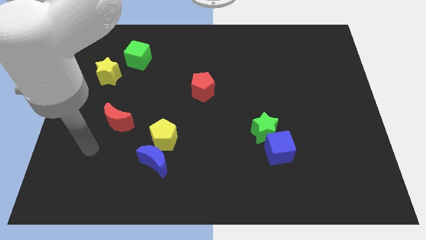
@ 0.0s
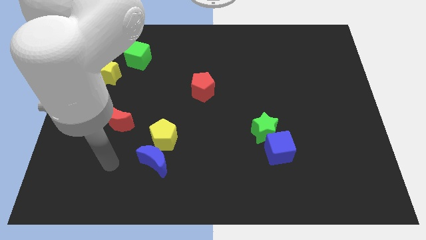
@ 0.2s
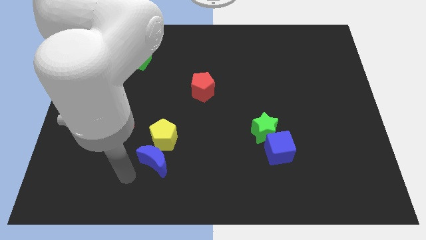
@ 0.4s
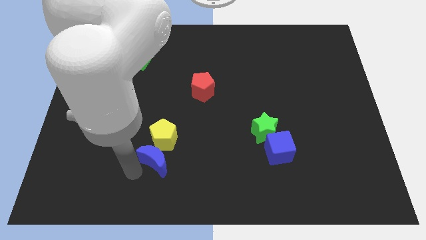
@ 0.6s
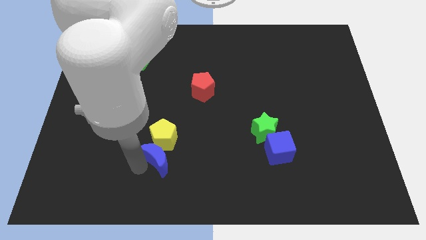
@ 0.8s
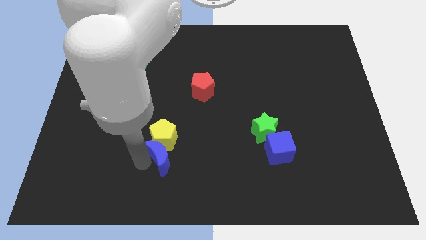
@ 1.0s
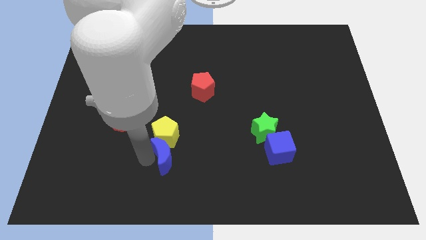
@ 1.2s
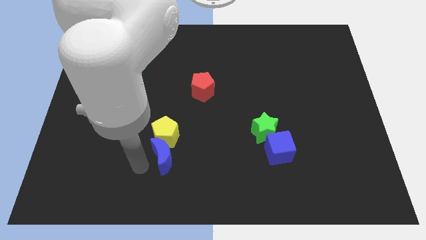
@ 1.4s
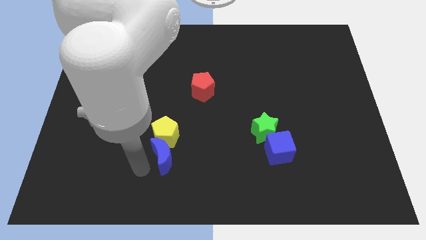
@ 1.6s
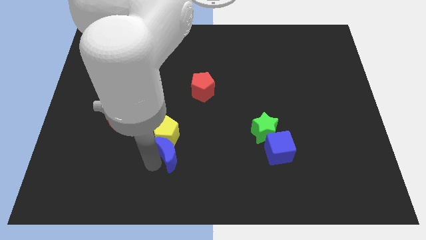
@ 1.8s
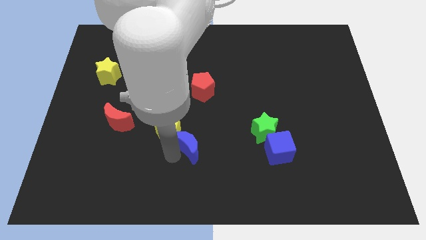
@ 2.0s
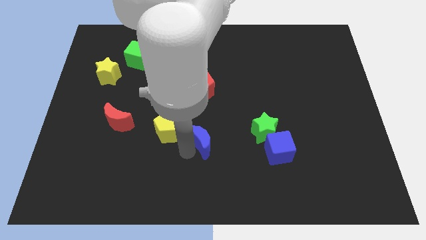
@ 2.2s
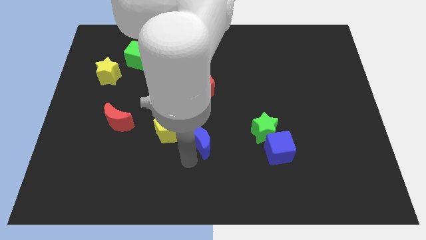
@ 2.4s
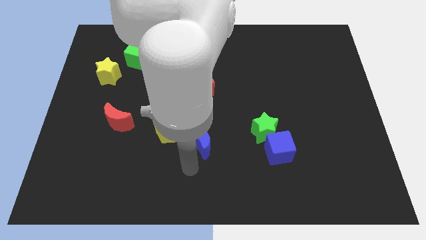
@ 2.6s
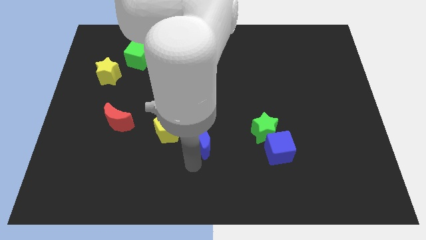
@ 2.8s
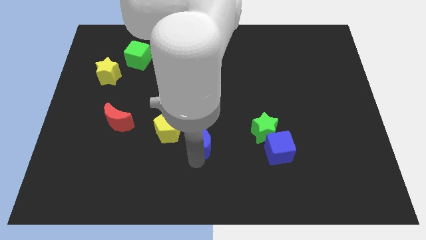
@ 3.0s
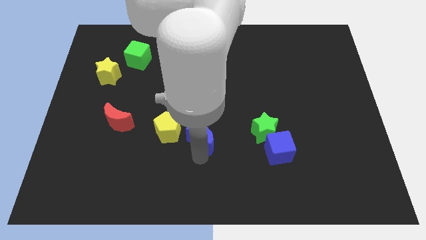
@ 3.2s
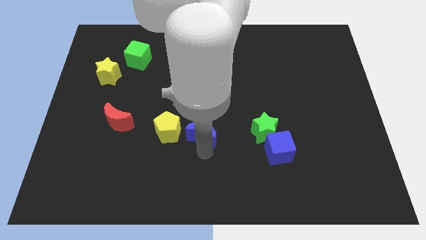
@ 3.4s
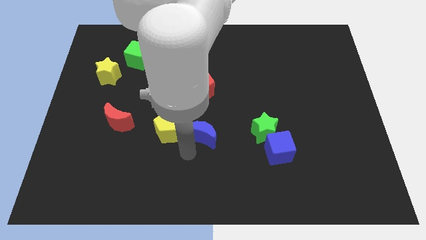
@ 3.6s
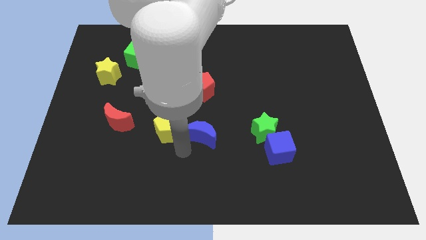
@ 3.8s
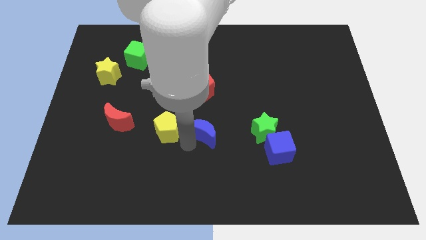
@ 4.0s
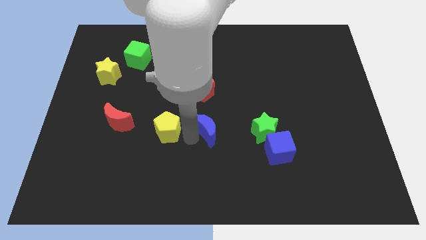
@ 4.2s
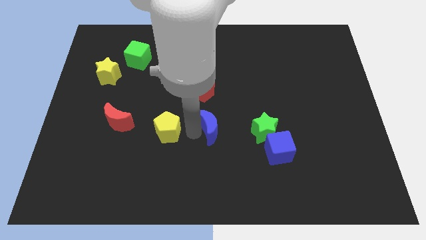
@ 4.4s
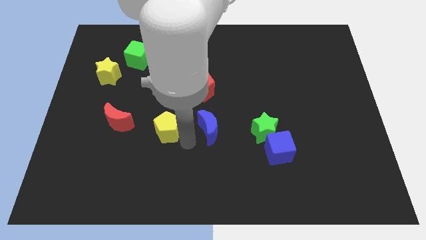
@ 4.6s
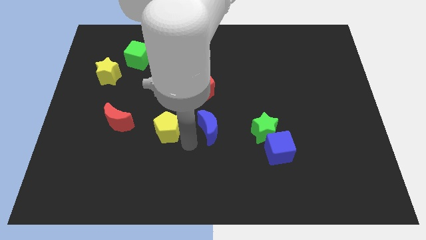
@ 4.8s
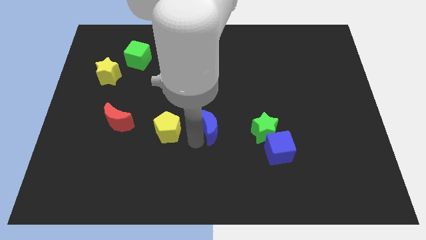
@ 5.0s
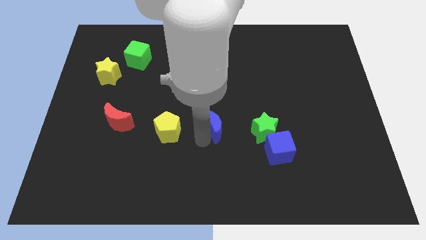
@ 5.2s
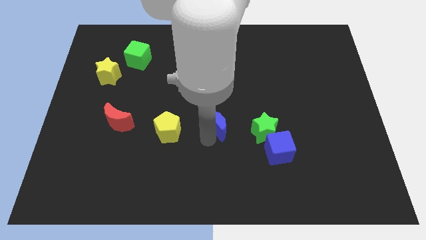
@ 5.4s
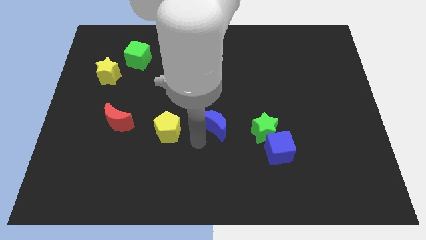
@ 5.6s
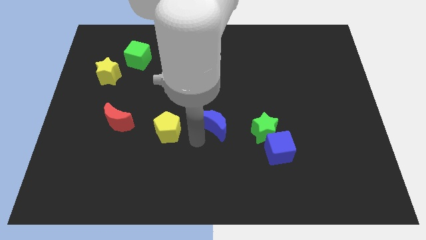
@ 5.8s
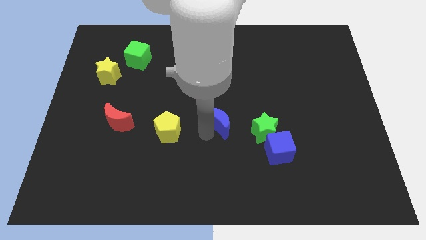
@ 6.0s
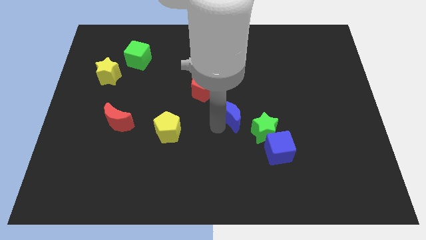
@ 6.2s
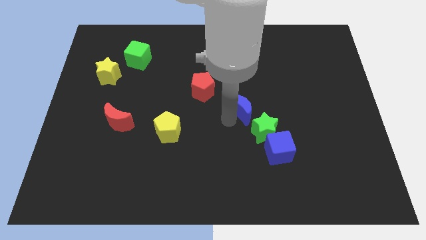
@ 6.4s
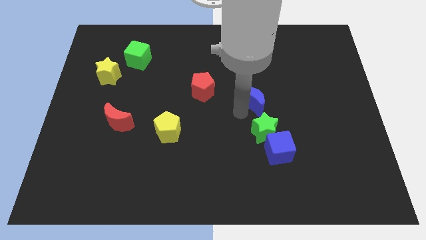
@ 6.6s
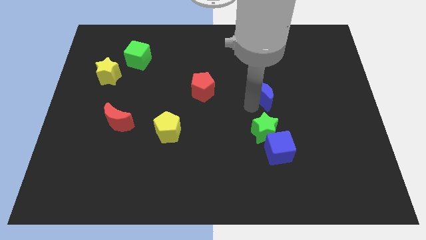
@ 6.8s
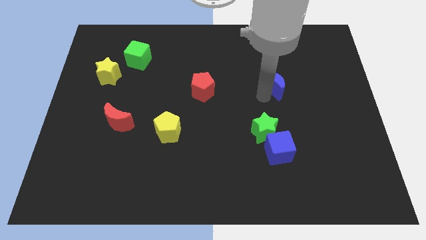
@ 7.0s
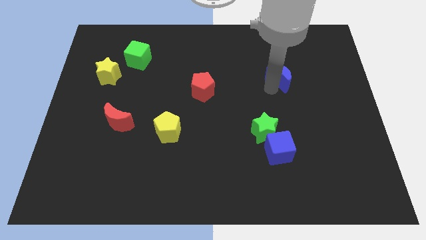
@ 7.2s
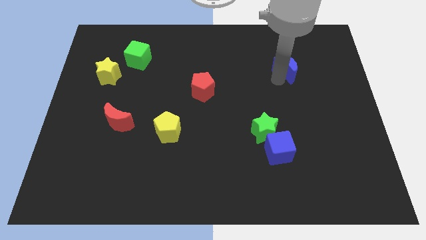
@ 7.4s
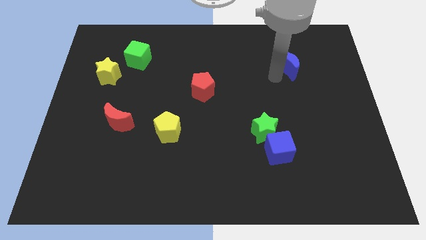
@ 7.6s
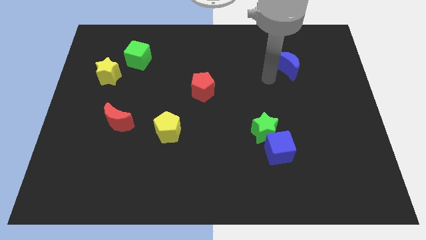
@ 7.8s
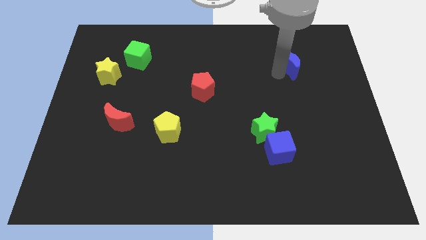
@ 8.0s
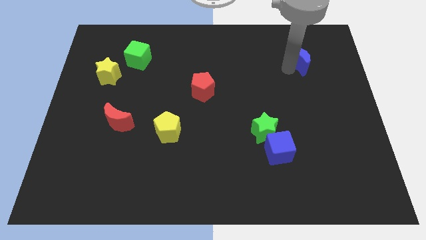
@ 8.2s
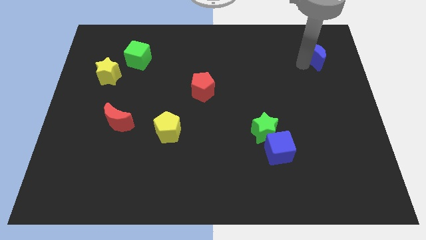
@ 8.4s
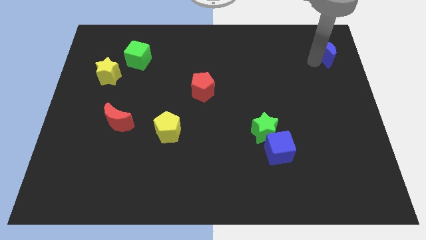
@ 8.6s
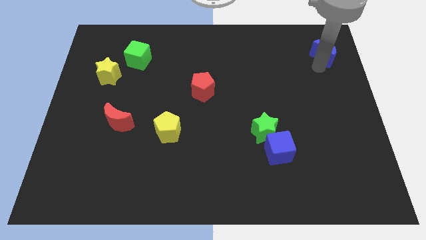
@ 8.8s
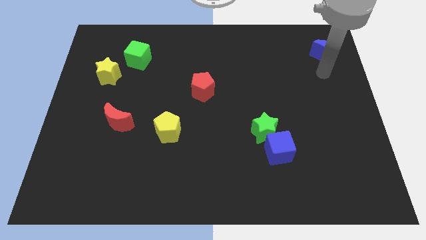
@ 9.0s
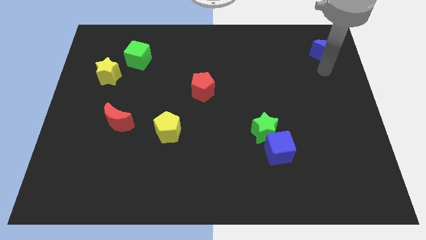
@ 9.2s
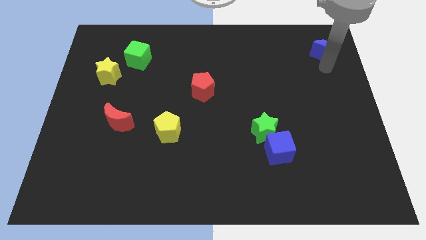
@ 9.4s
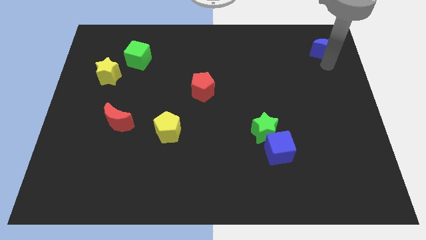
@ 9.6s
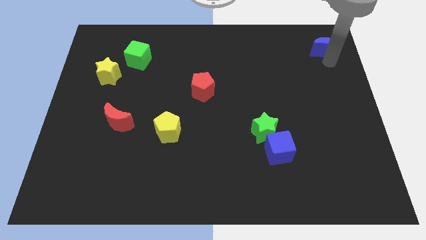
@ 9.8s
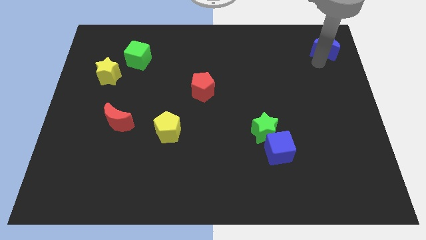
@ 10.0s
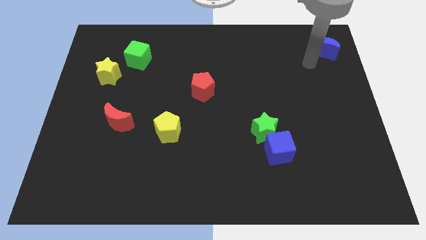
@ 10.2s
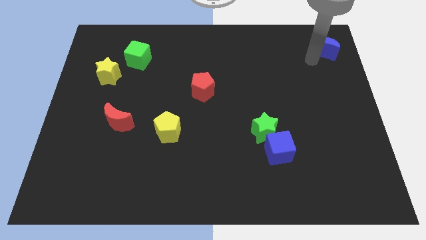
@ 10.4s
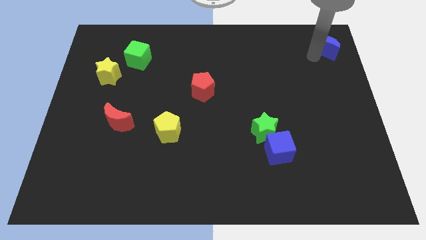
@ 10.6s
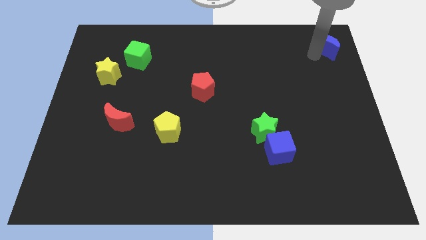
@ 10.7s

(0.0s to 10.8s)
slide the blue moon to the top right corner

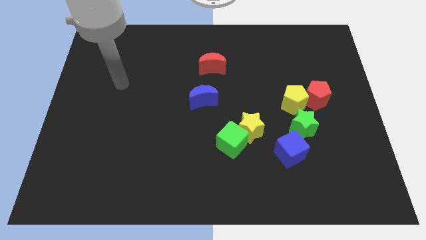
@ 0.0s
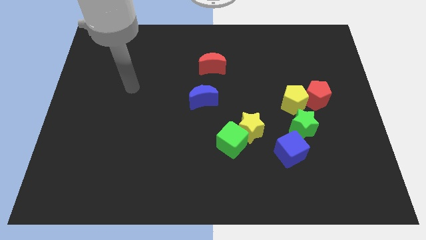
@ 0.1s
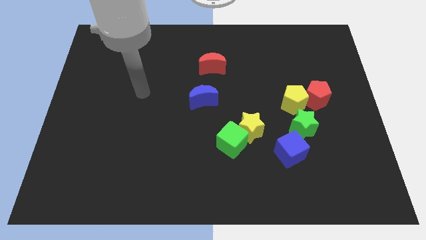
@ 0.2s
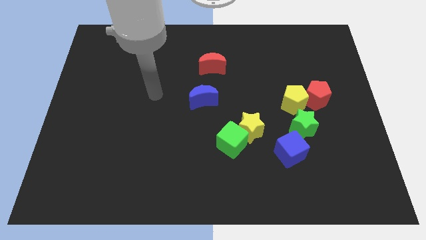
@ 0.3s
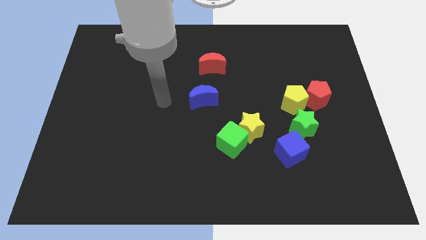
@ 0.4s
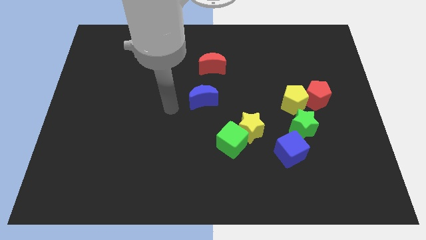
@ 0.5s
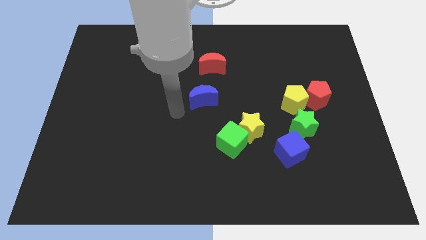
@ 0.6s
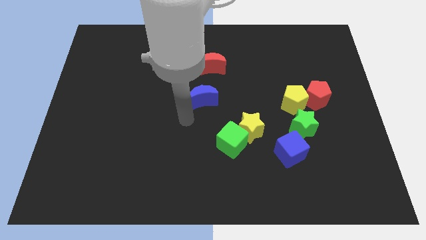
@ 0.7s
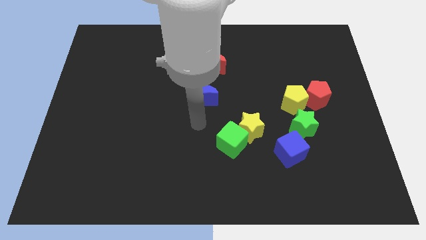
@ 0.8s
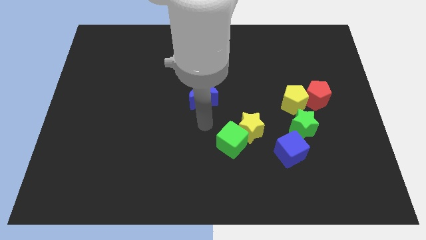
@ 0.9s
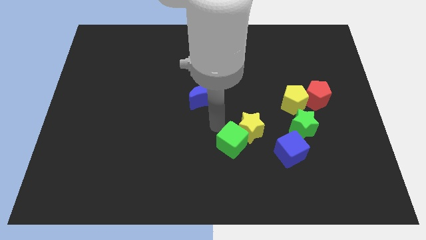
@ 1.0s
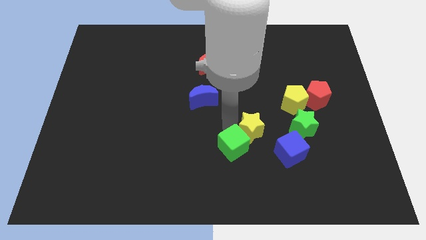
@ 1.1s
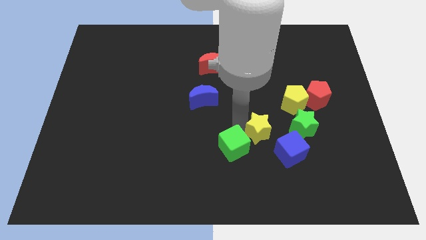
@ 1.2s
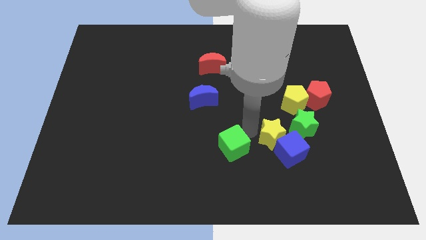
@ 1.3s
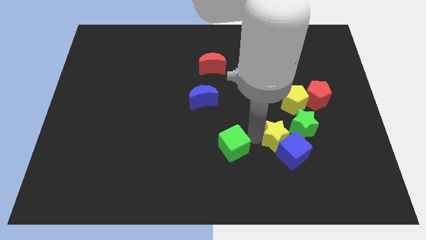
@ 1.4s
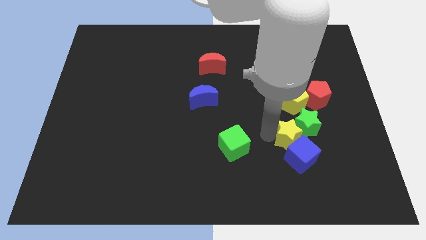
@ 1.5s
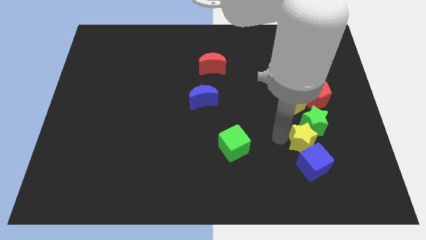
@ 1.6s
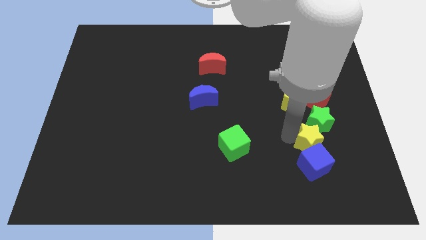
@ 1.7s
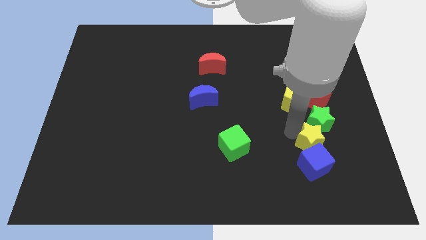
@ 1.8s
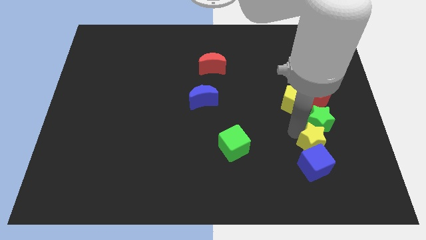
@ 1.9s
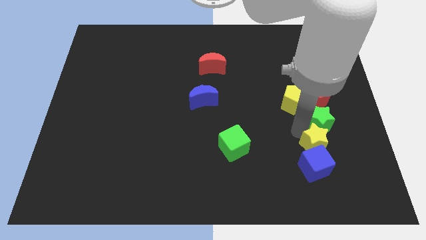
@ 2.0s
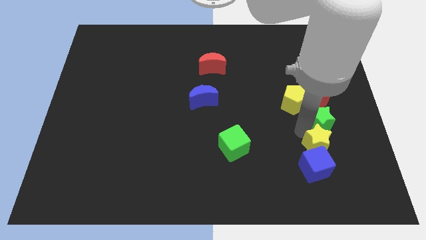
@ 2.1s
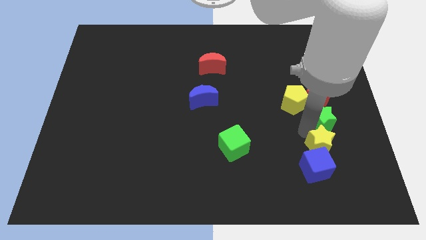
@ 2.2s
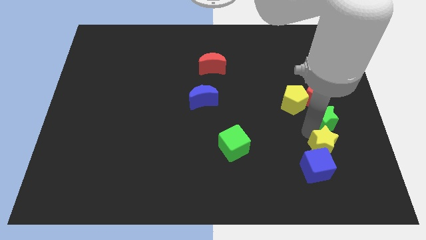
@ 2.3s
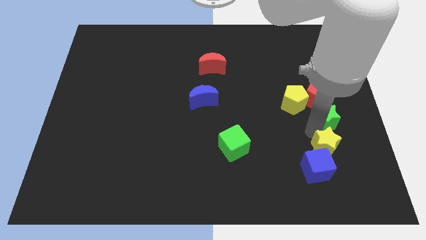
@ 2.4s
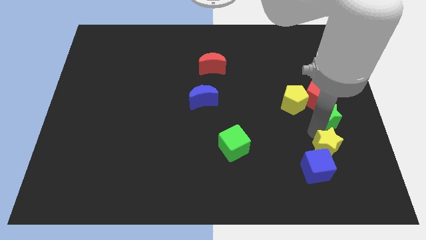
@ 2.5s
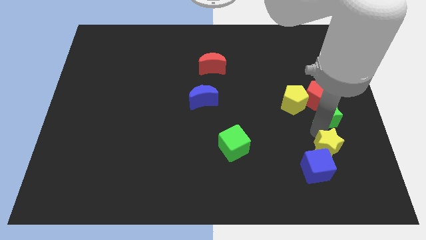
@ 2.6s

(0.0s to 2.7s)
push the green star to the right side
